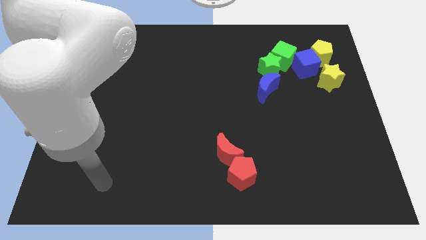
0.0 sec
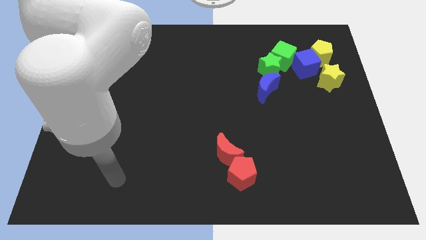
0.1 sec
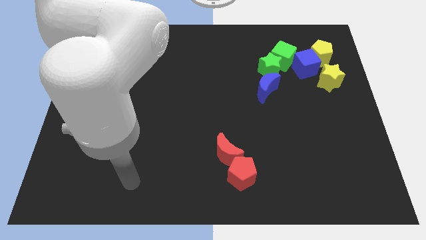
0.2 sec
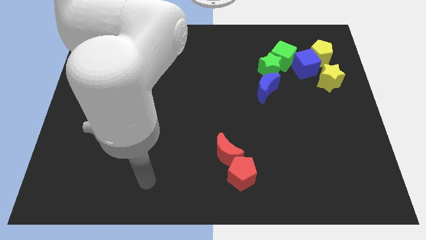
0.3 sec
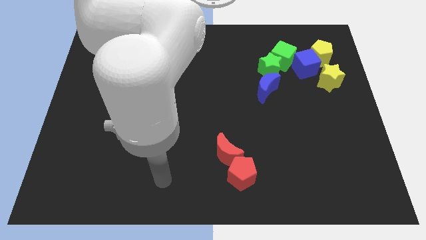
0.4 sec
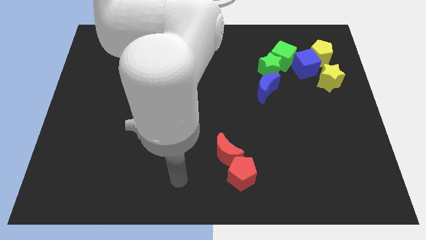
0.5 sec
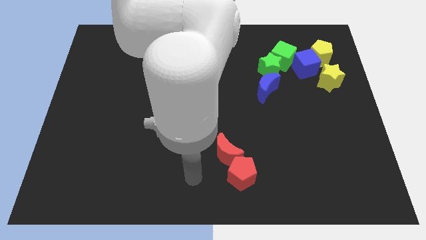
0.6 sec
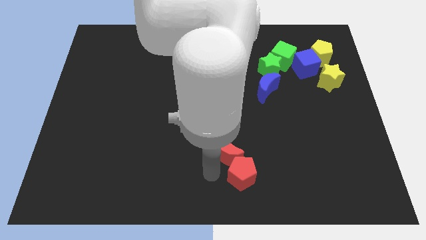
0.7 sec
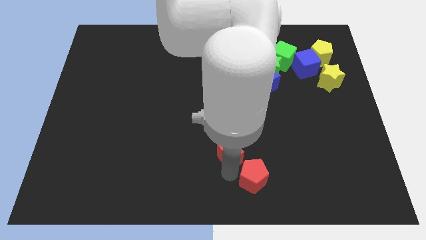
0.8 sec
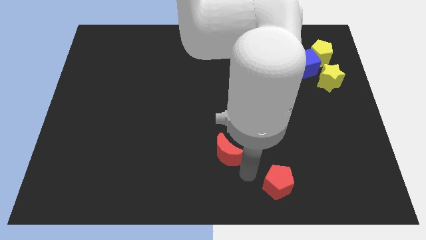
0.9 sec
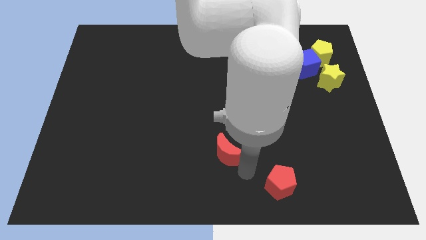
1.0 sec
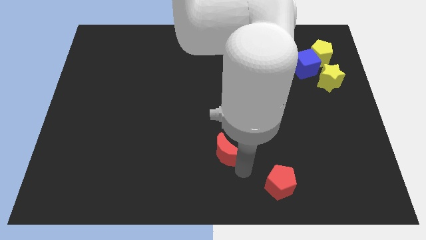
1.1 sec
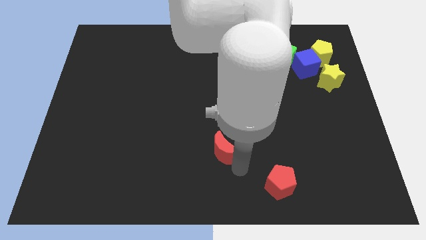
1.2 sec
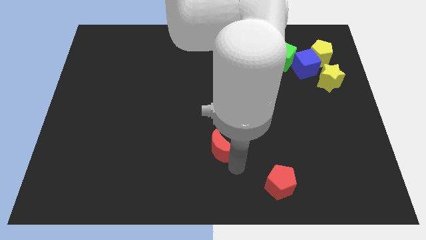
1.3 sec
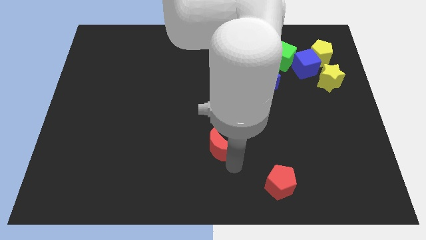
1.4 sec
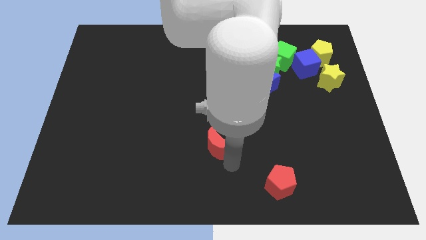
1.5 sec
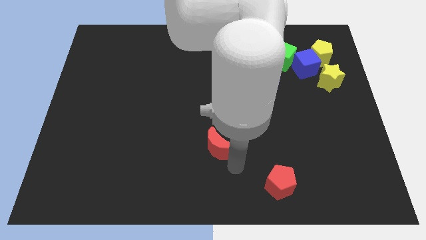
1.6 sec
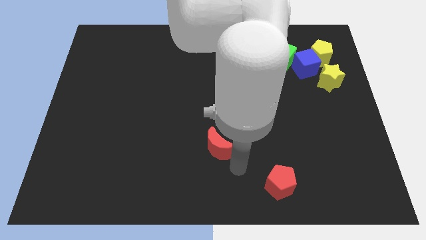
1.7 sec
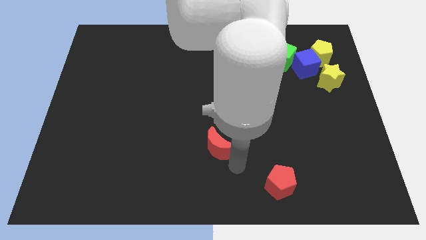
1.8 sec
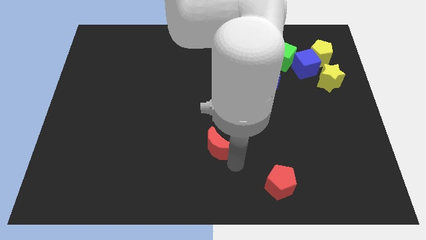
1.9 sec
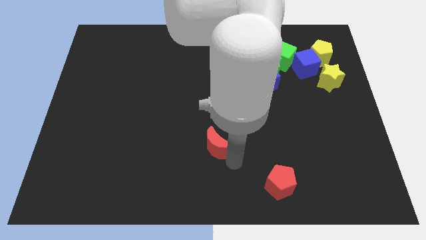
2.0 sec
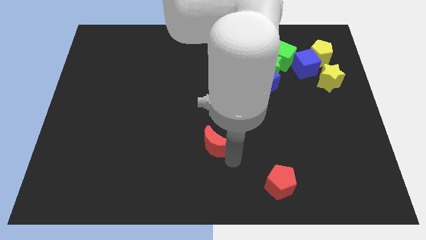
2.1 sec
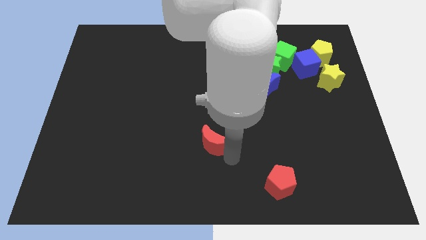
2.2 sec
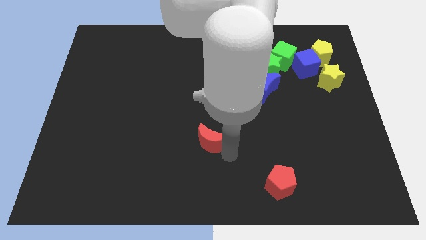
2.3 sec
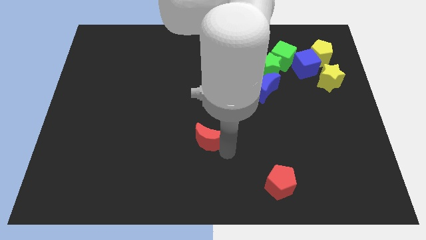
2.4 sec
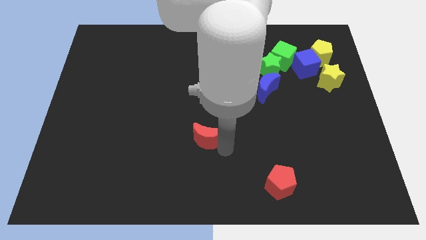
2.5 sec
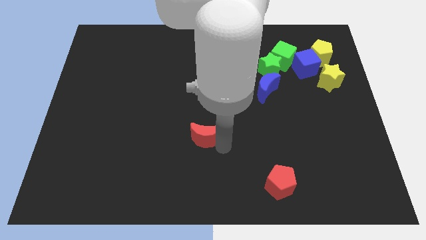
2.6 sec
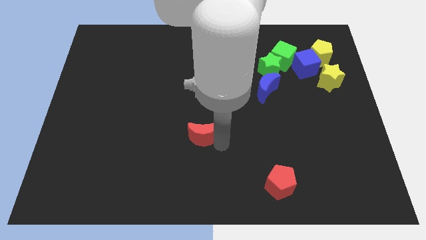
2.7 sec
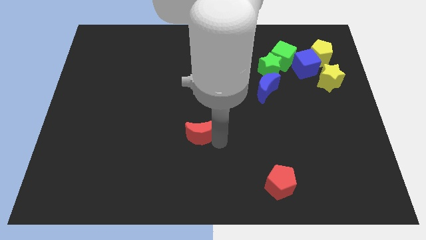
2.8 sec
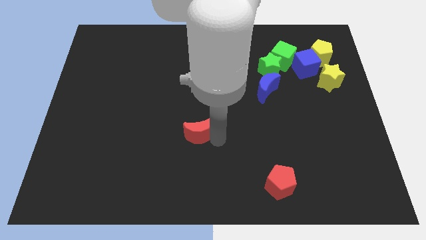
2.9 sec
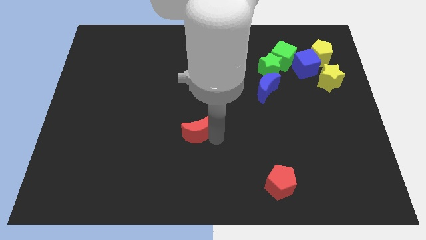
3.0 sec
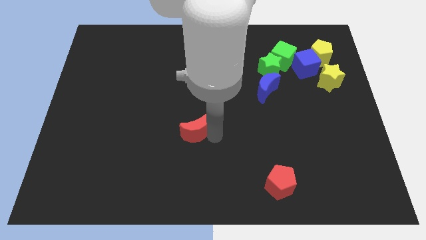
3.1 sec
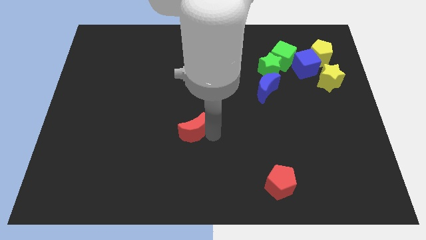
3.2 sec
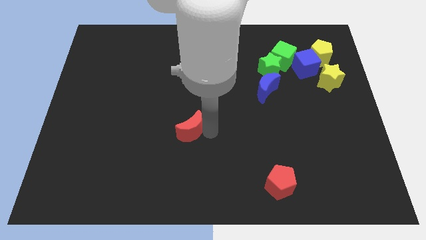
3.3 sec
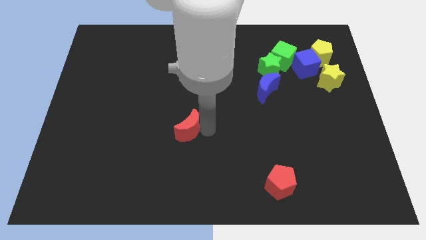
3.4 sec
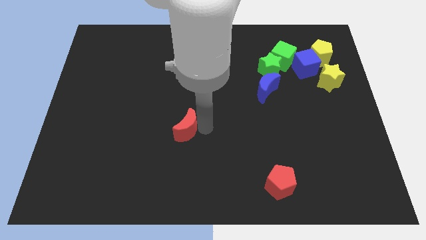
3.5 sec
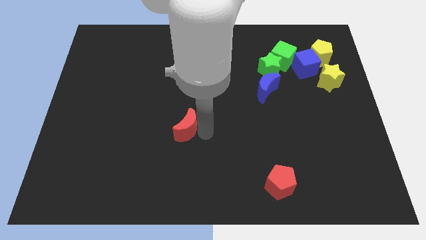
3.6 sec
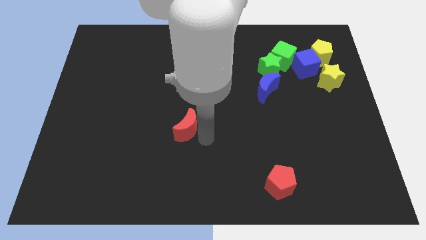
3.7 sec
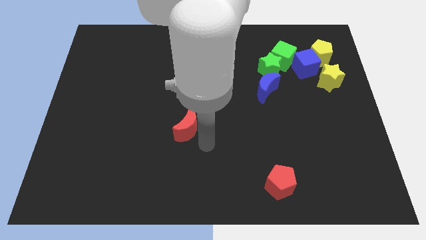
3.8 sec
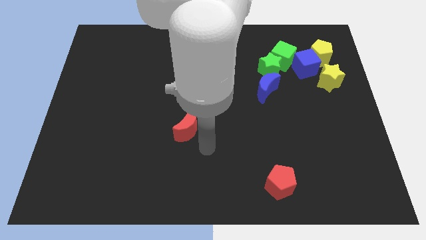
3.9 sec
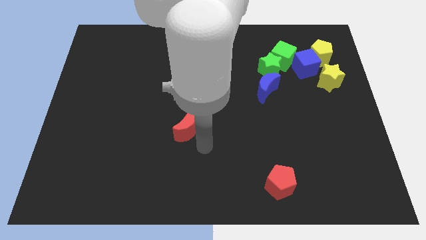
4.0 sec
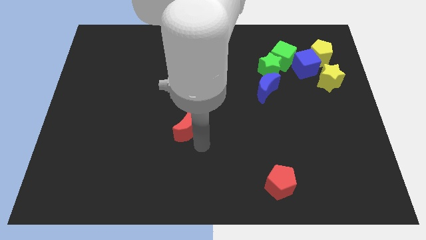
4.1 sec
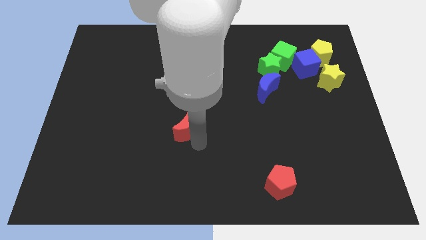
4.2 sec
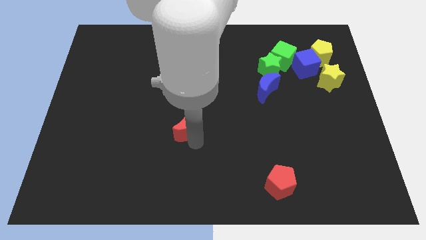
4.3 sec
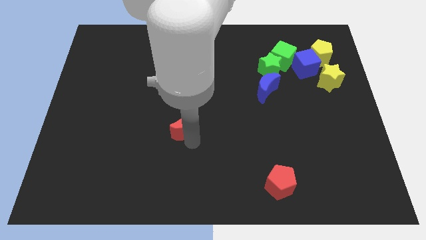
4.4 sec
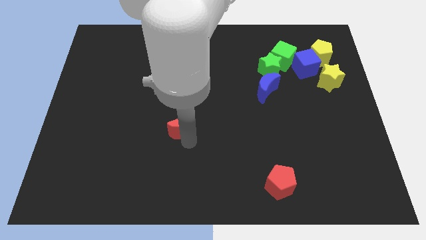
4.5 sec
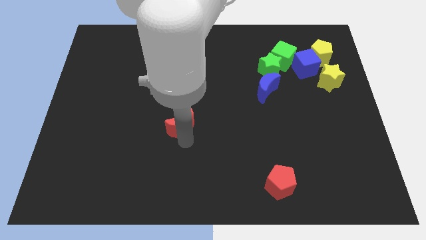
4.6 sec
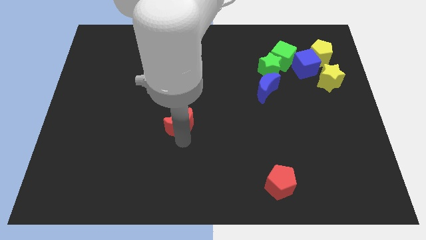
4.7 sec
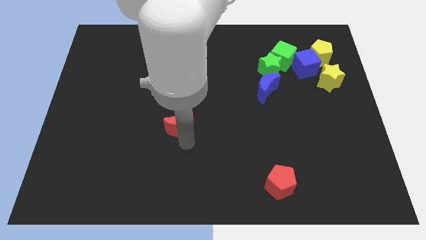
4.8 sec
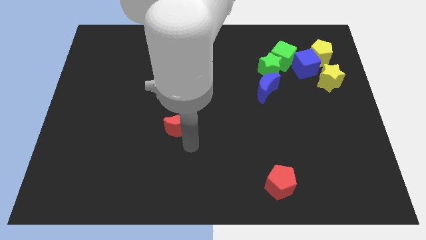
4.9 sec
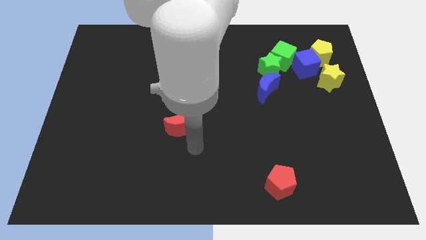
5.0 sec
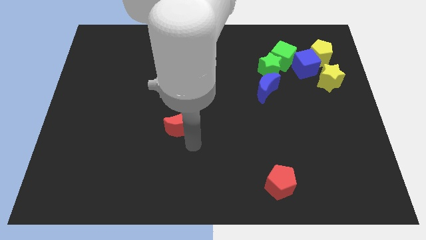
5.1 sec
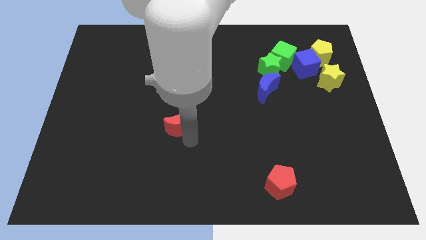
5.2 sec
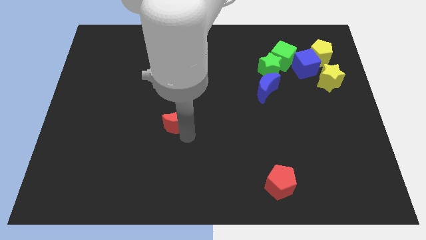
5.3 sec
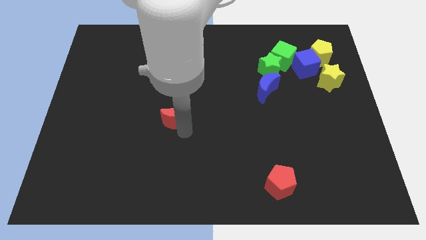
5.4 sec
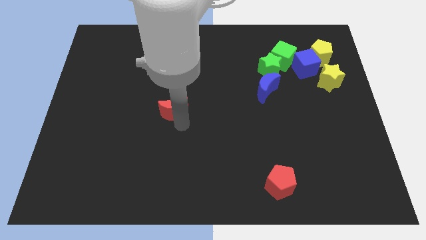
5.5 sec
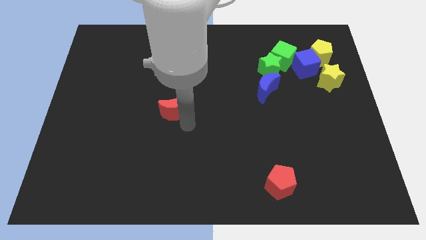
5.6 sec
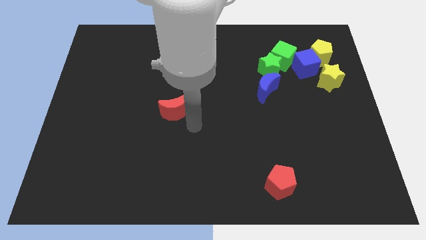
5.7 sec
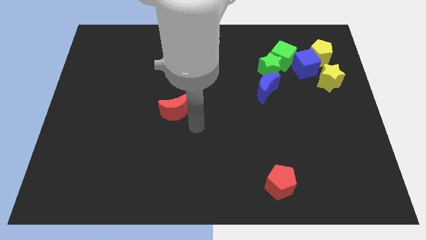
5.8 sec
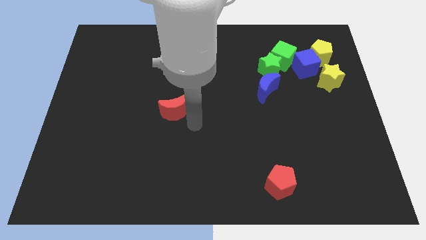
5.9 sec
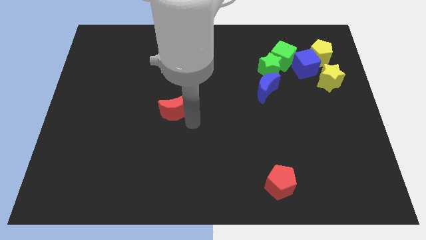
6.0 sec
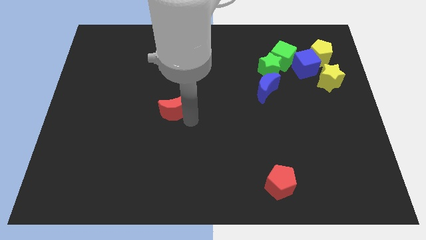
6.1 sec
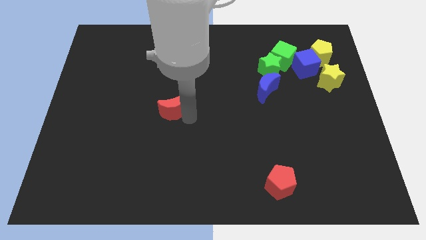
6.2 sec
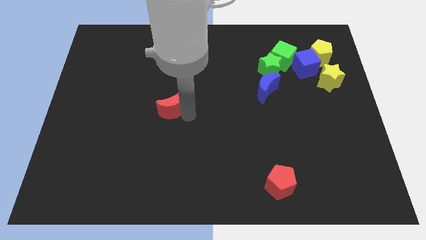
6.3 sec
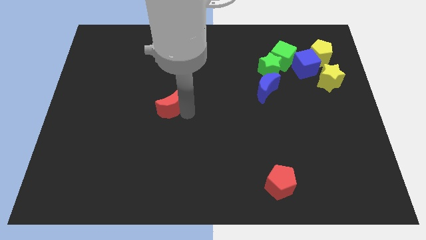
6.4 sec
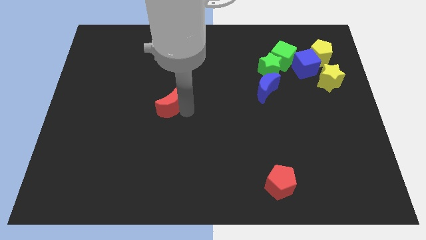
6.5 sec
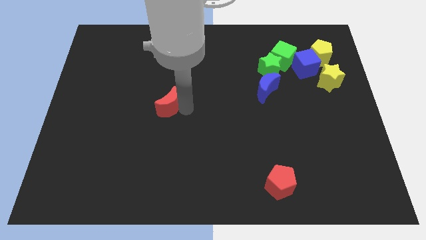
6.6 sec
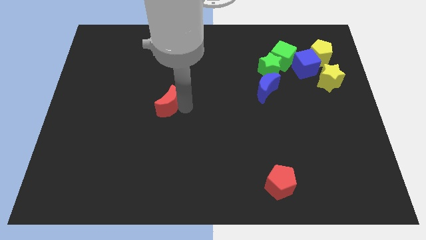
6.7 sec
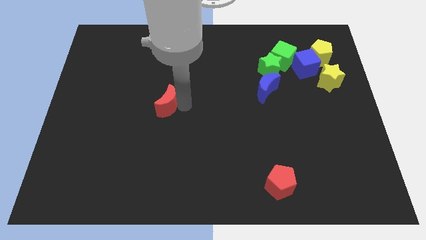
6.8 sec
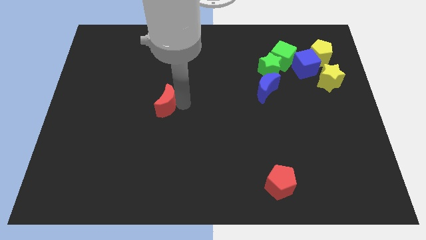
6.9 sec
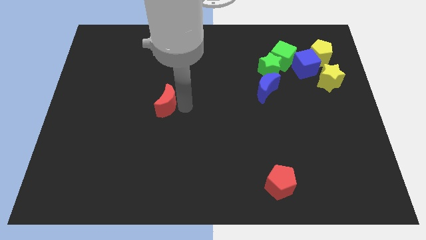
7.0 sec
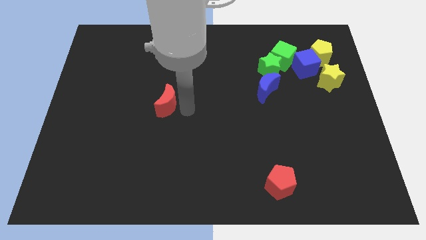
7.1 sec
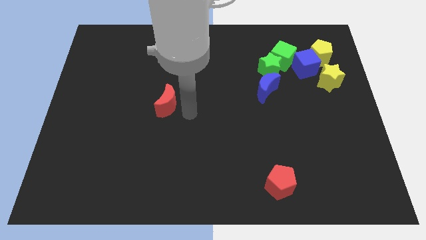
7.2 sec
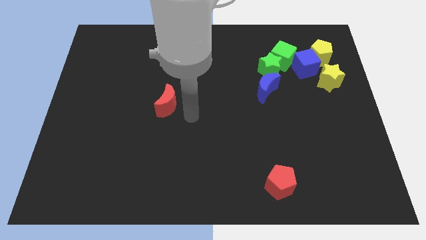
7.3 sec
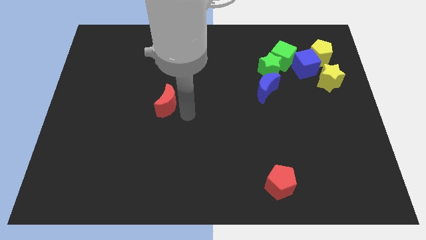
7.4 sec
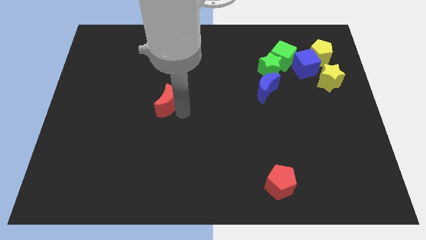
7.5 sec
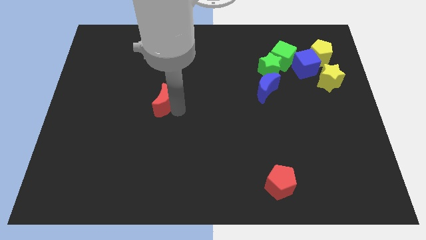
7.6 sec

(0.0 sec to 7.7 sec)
slide the red moon up and to the left
